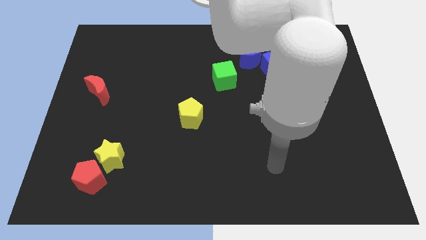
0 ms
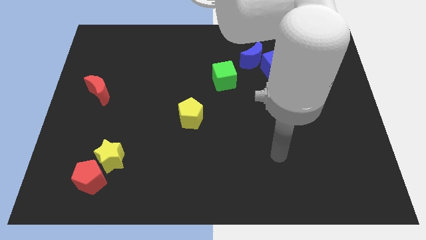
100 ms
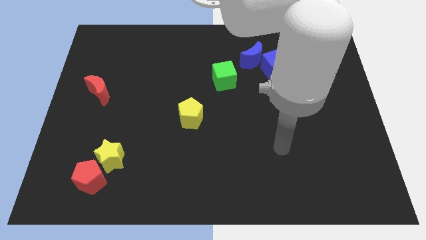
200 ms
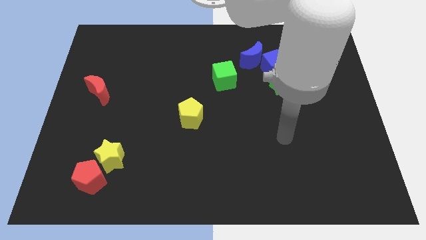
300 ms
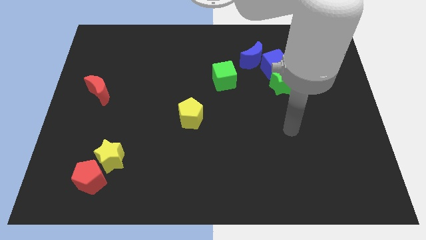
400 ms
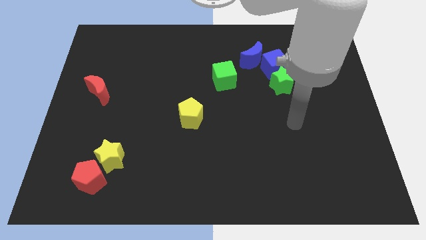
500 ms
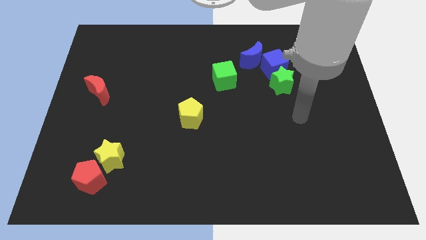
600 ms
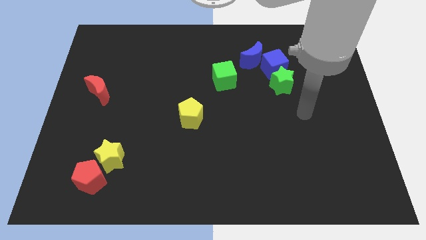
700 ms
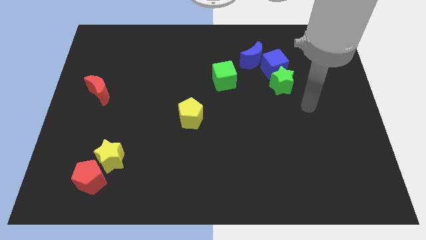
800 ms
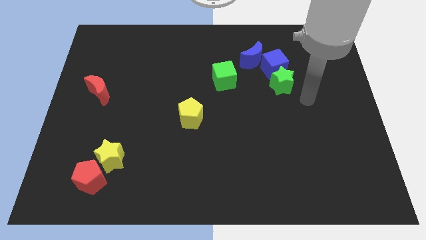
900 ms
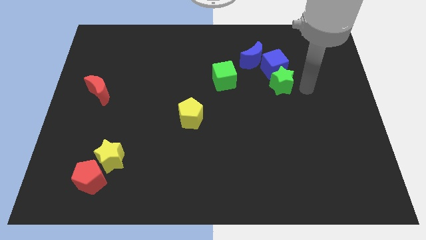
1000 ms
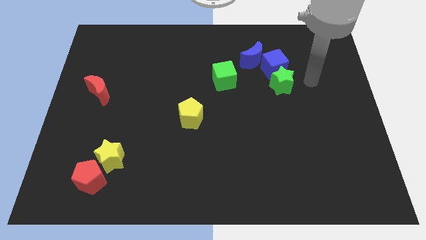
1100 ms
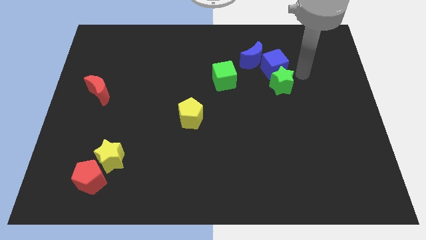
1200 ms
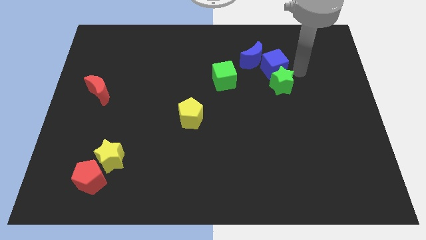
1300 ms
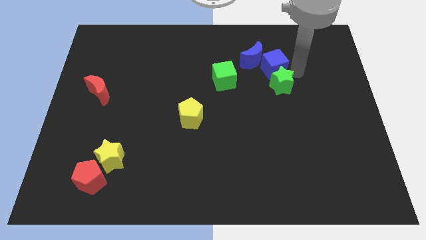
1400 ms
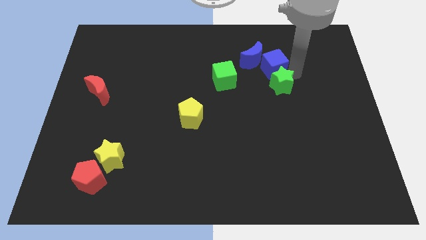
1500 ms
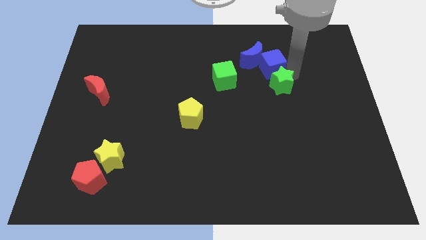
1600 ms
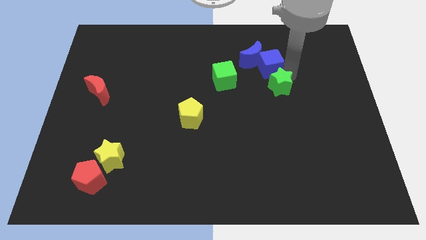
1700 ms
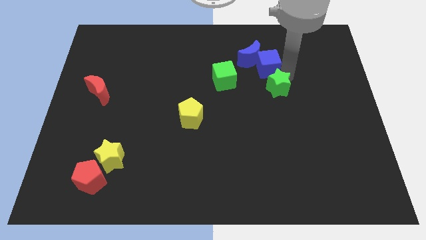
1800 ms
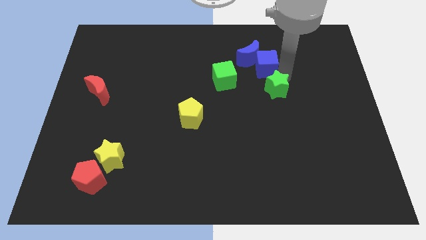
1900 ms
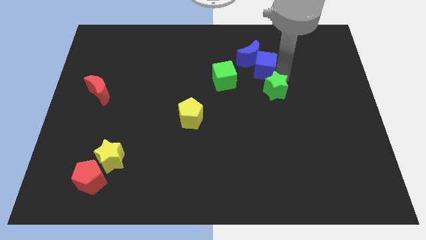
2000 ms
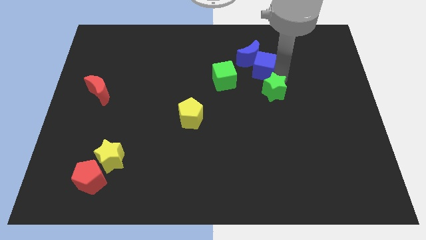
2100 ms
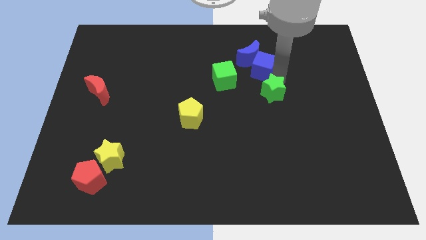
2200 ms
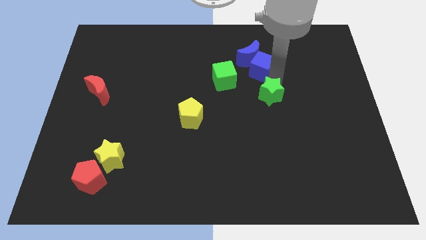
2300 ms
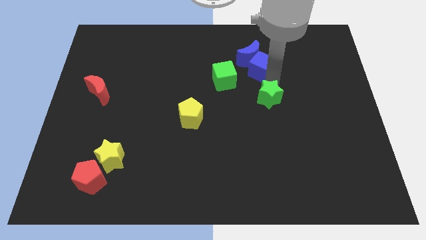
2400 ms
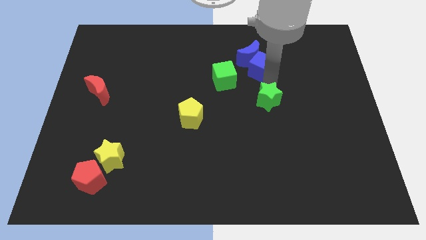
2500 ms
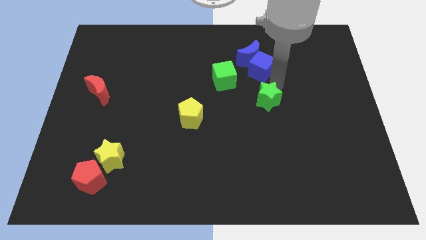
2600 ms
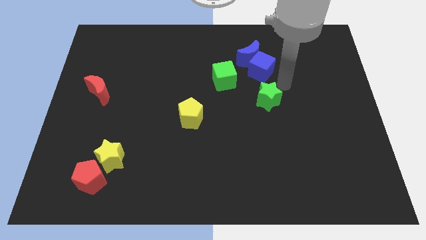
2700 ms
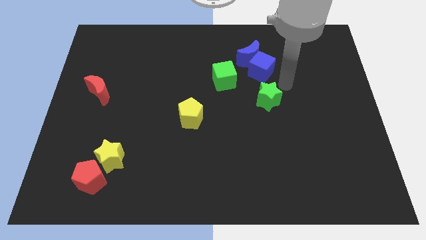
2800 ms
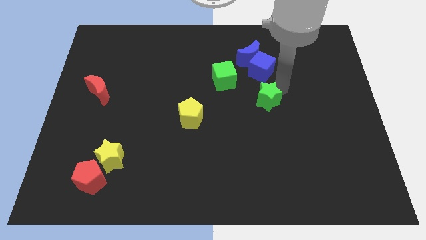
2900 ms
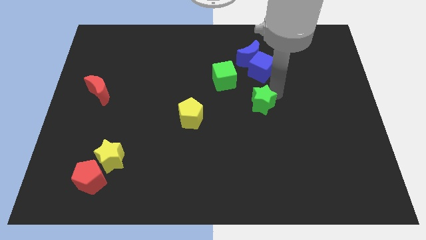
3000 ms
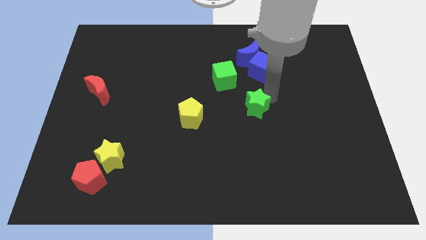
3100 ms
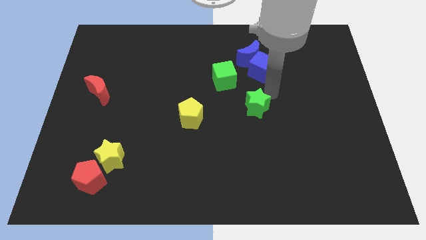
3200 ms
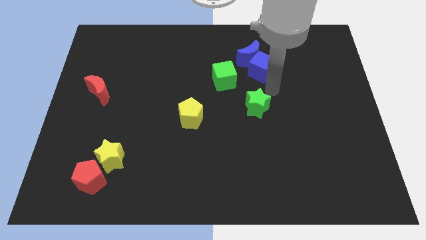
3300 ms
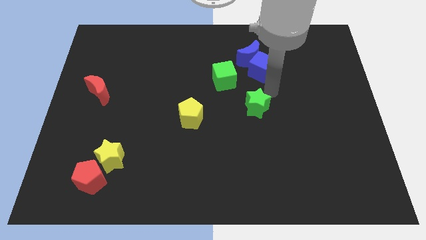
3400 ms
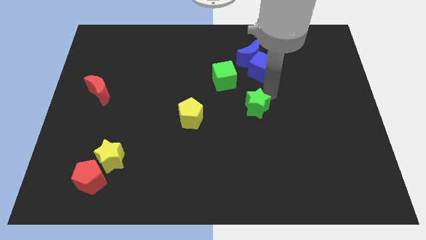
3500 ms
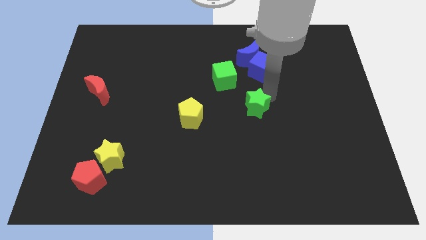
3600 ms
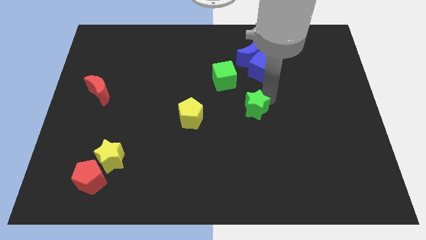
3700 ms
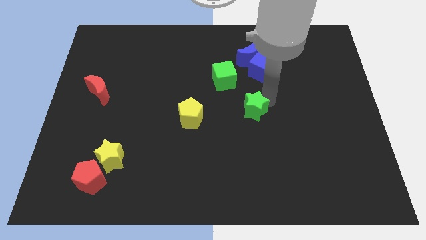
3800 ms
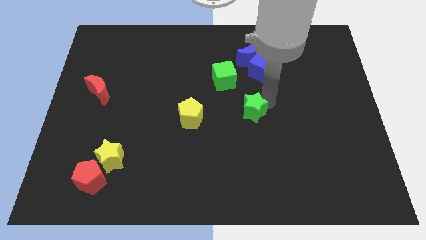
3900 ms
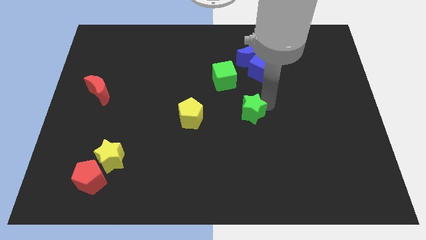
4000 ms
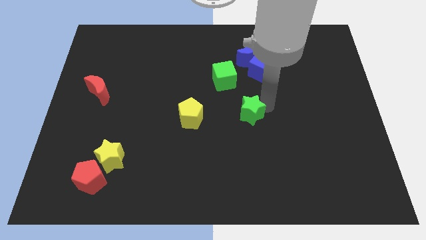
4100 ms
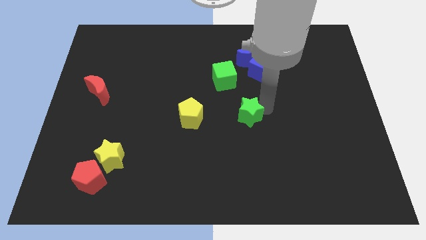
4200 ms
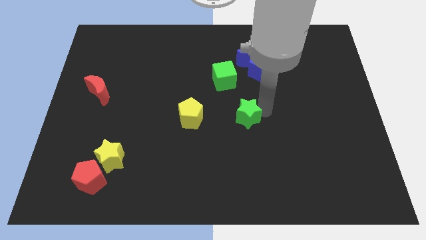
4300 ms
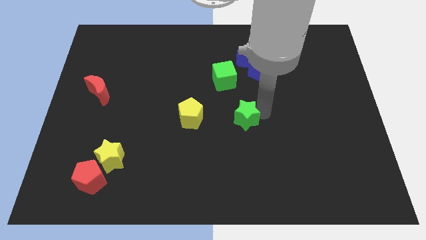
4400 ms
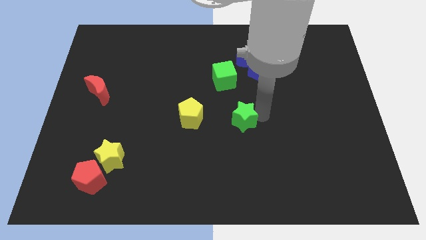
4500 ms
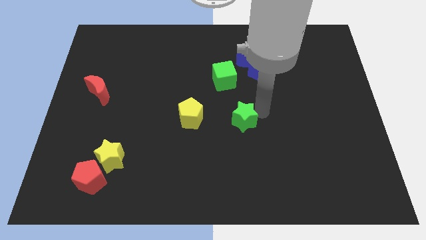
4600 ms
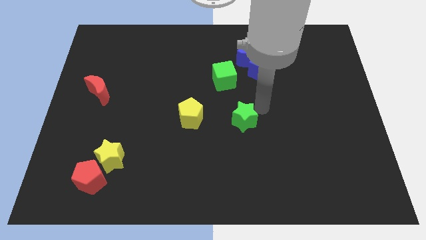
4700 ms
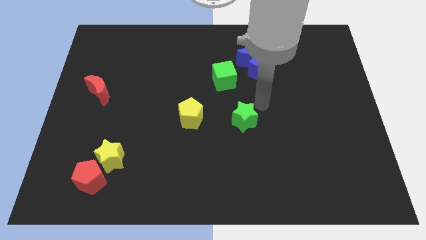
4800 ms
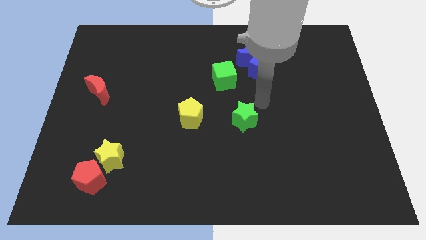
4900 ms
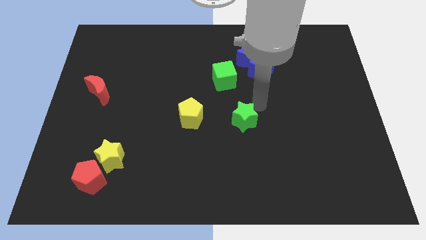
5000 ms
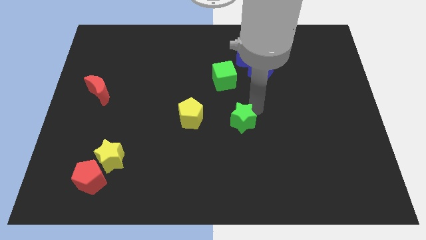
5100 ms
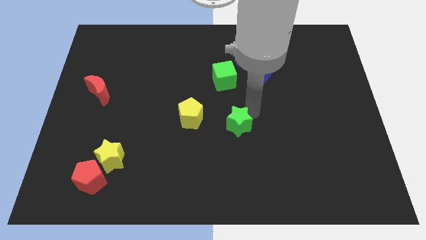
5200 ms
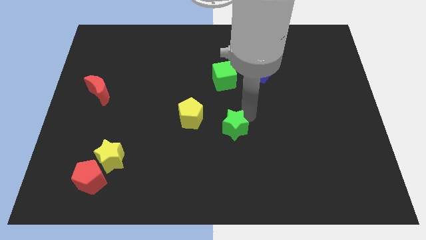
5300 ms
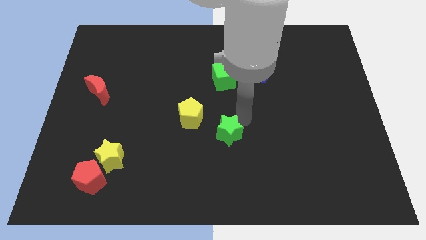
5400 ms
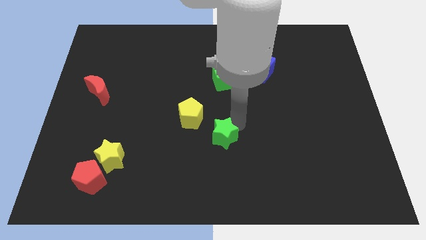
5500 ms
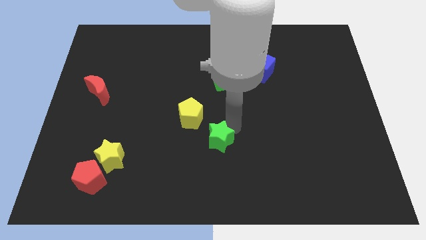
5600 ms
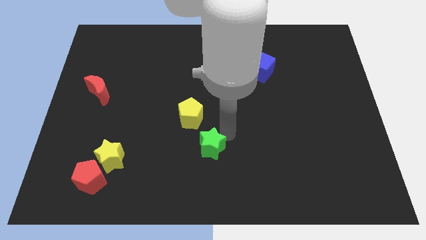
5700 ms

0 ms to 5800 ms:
slide the green star below the yellow pentagon

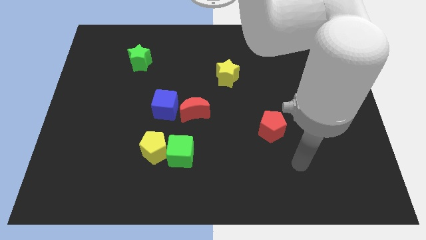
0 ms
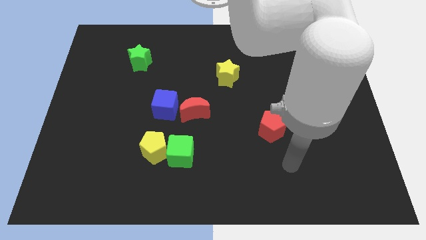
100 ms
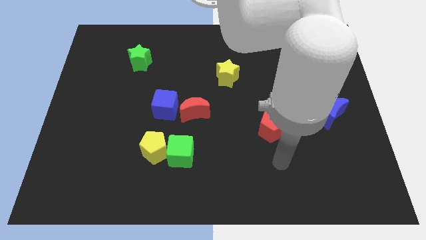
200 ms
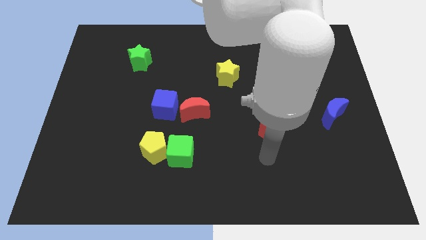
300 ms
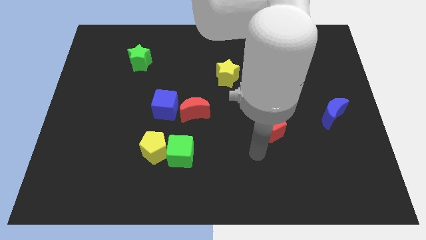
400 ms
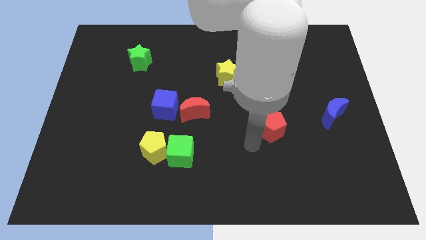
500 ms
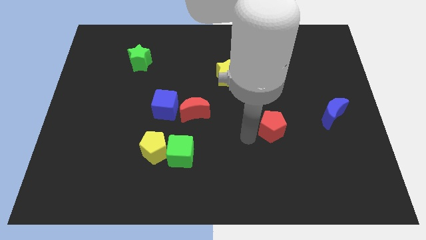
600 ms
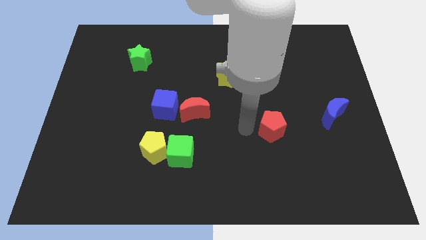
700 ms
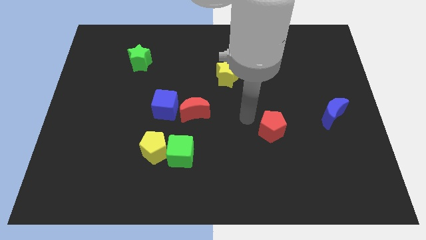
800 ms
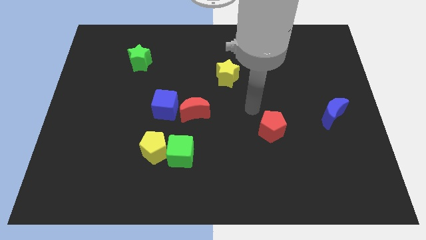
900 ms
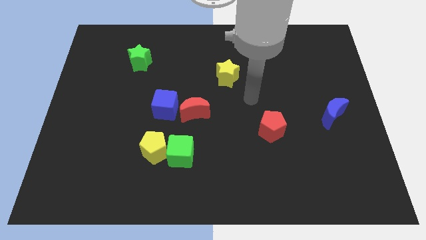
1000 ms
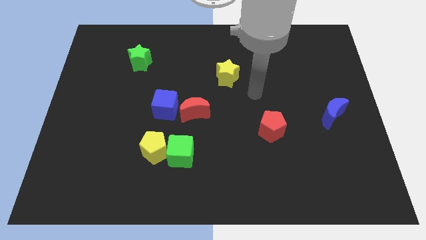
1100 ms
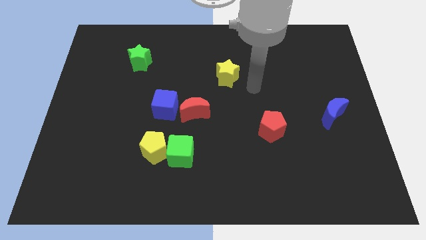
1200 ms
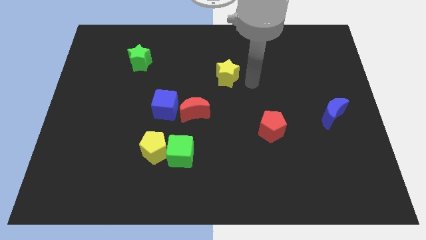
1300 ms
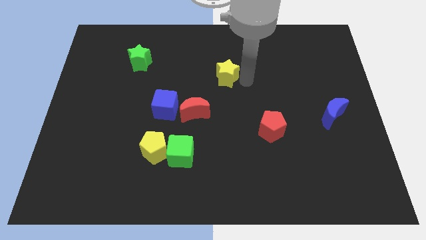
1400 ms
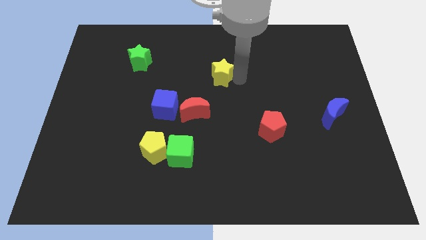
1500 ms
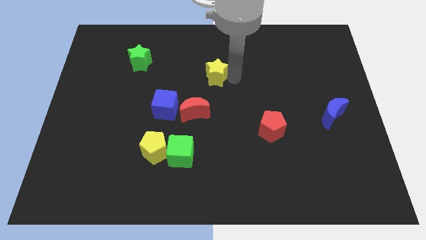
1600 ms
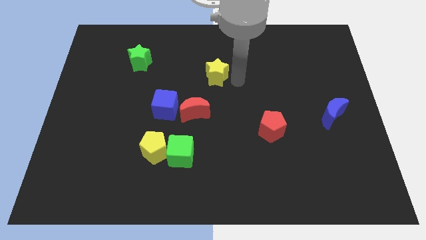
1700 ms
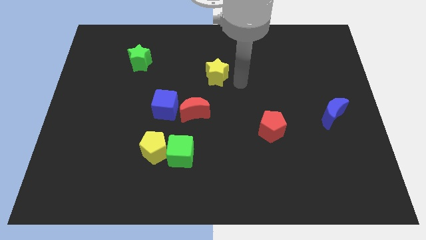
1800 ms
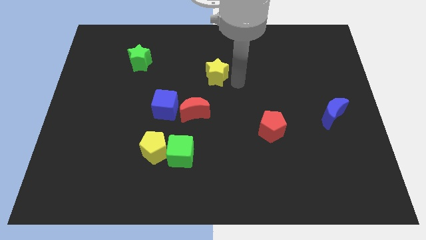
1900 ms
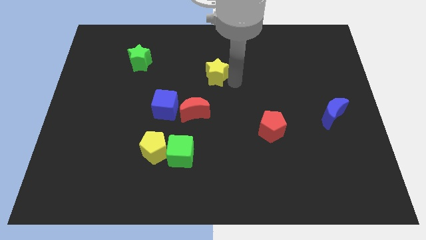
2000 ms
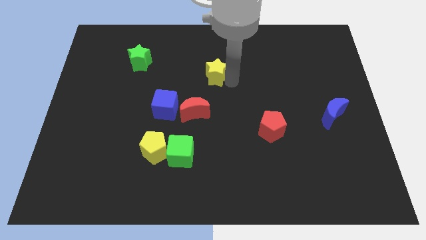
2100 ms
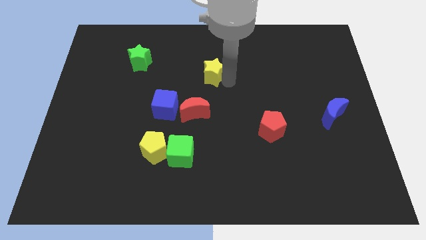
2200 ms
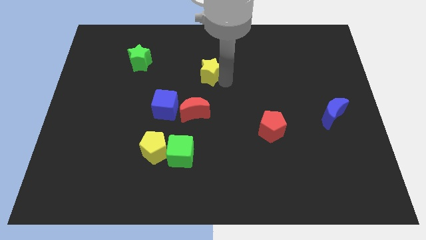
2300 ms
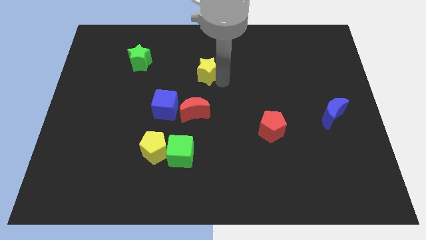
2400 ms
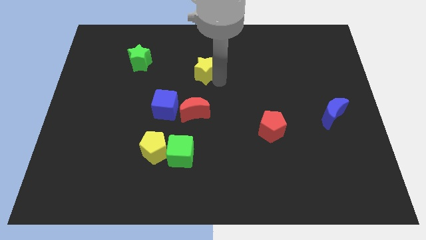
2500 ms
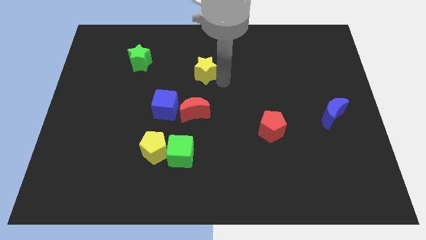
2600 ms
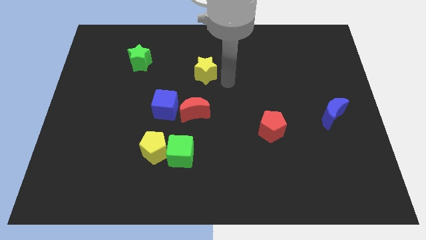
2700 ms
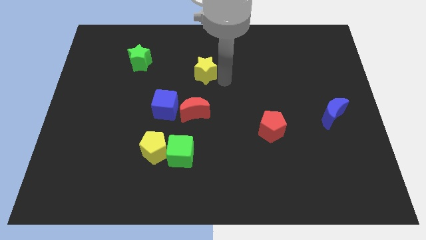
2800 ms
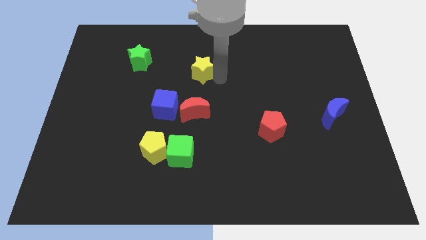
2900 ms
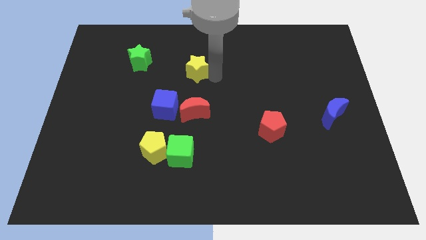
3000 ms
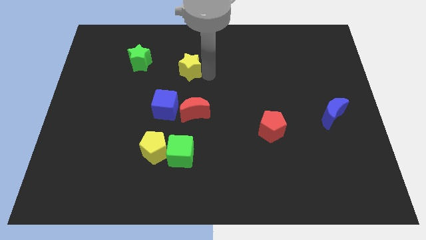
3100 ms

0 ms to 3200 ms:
slide the yellow star to the right side of the green star
